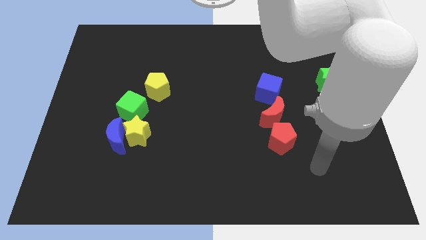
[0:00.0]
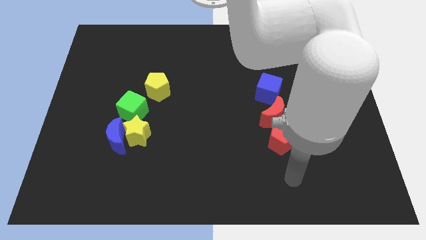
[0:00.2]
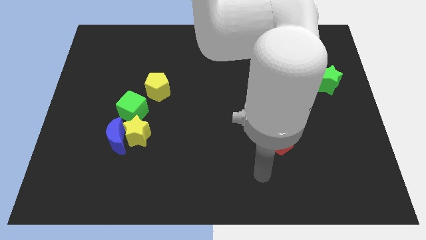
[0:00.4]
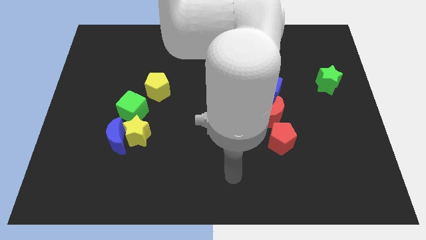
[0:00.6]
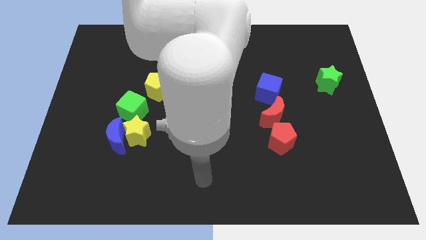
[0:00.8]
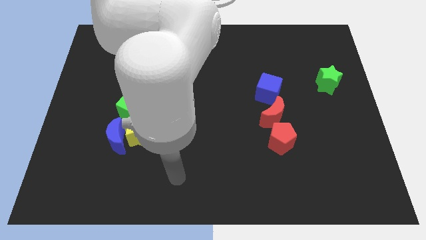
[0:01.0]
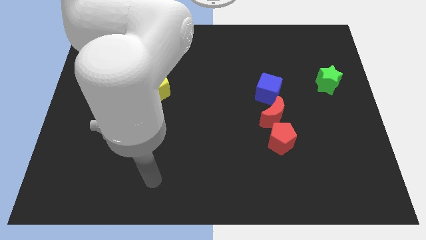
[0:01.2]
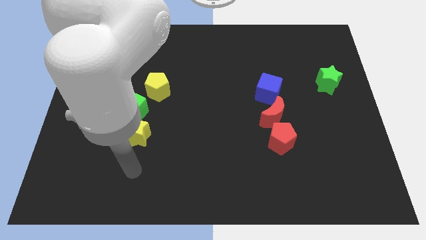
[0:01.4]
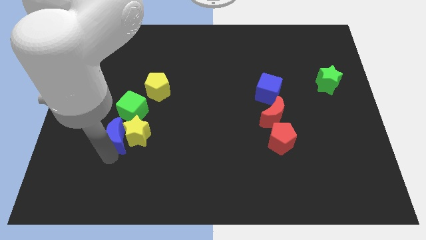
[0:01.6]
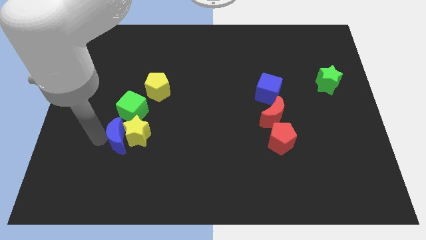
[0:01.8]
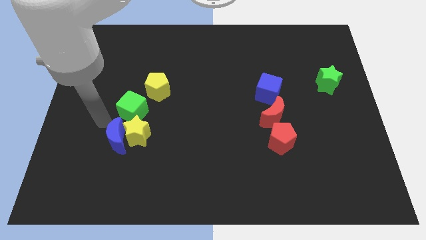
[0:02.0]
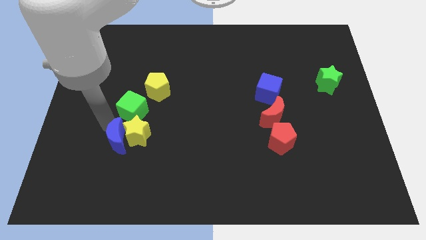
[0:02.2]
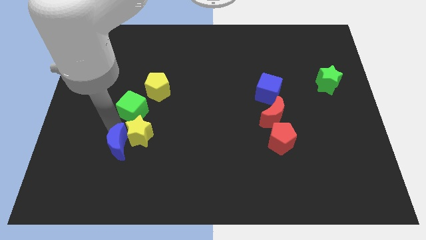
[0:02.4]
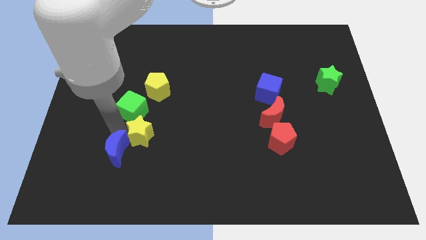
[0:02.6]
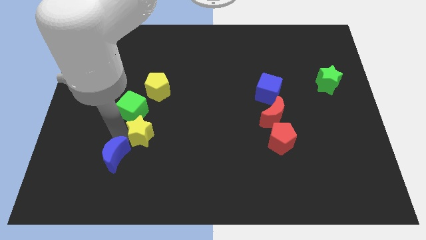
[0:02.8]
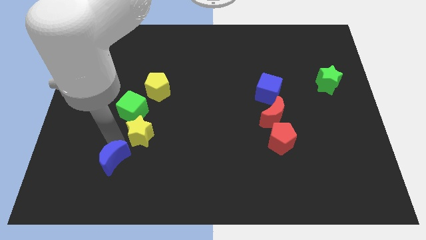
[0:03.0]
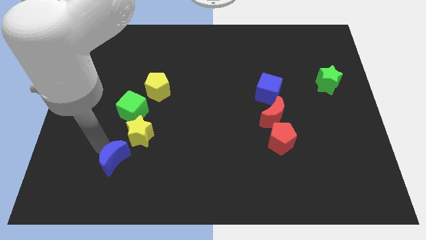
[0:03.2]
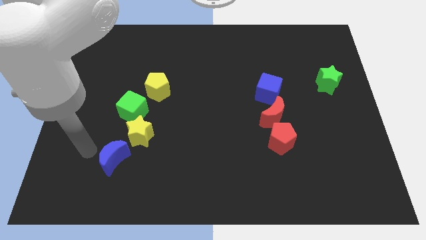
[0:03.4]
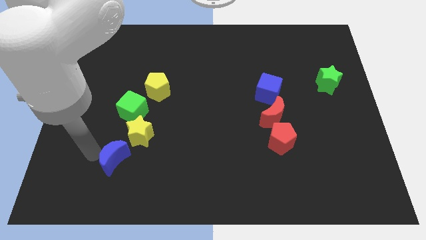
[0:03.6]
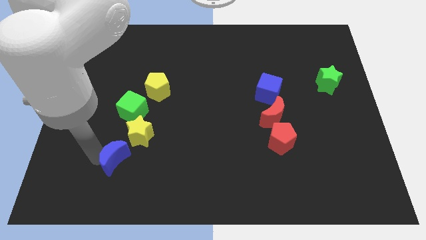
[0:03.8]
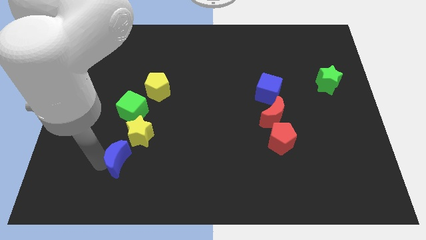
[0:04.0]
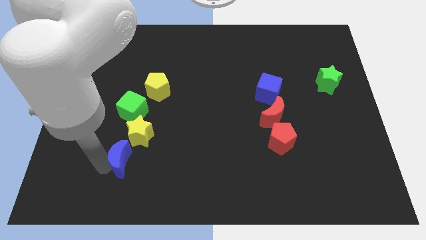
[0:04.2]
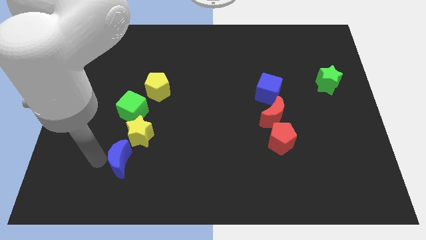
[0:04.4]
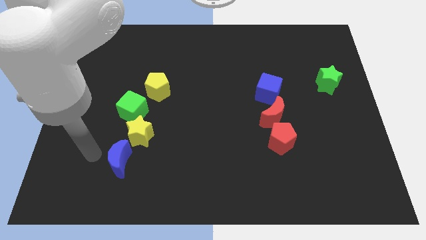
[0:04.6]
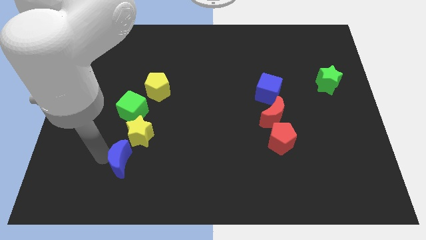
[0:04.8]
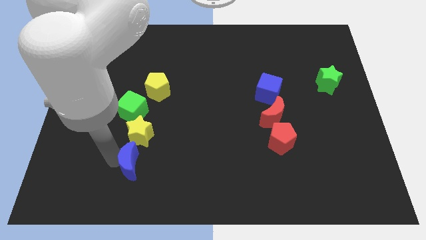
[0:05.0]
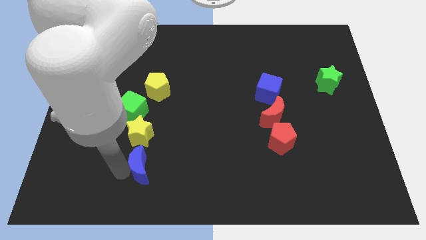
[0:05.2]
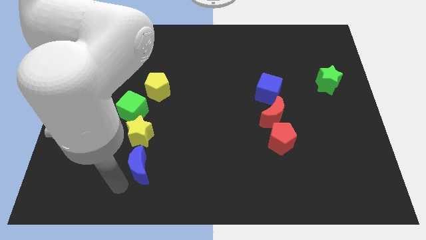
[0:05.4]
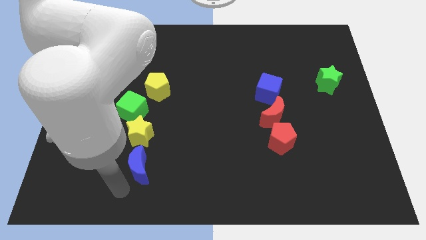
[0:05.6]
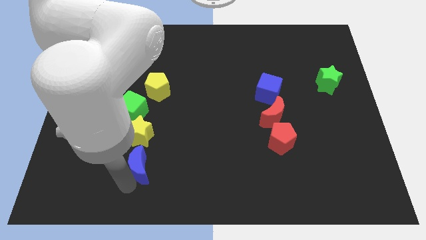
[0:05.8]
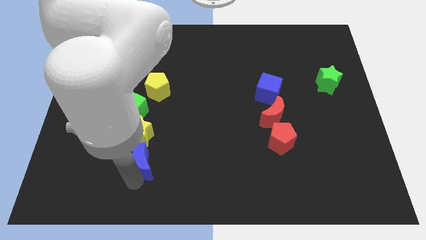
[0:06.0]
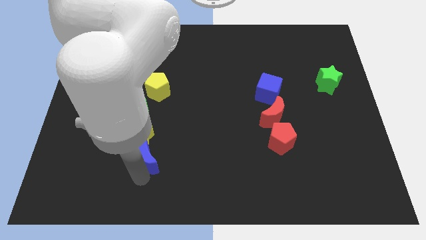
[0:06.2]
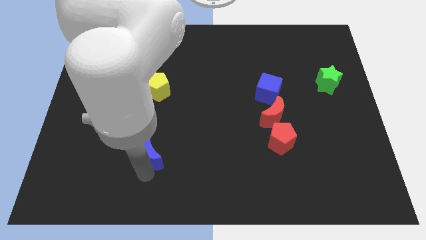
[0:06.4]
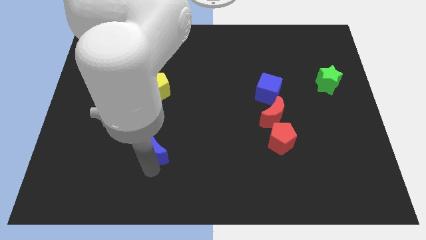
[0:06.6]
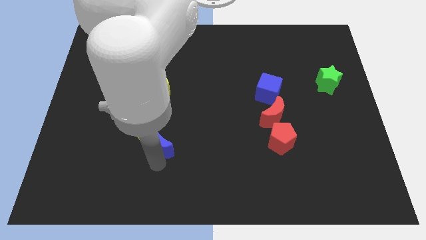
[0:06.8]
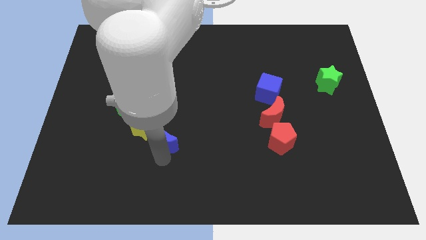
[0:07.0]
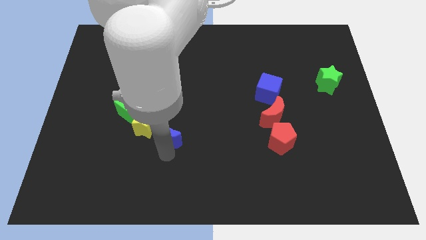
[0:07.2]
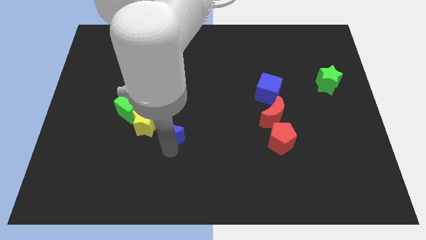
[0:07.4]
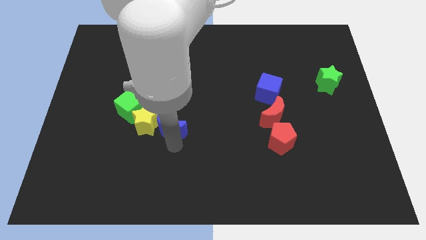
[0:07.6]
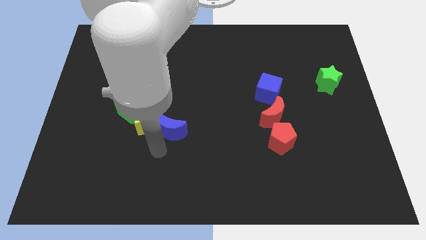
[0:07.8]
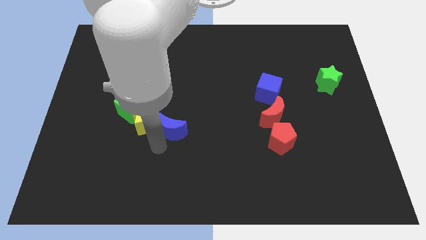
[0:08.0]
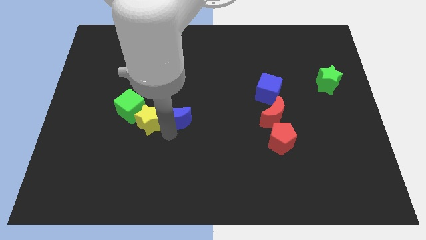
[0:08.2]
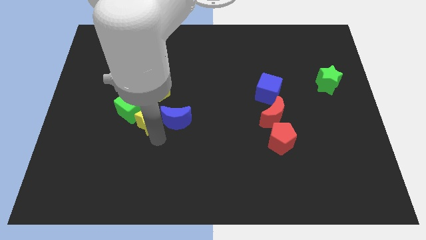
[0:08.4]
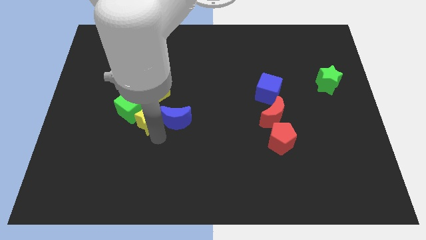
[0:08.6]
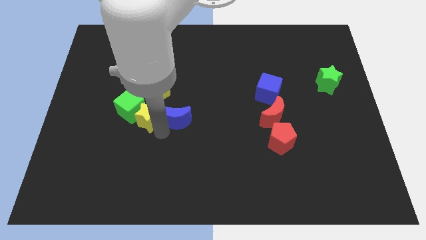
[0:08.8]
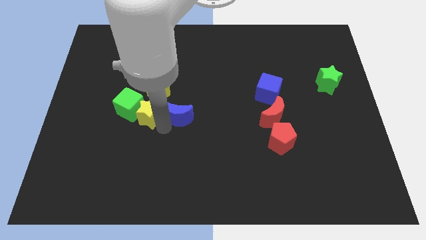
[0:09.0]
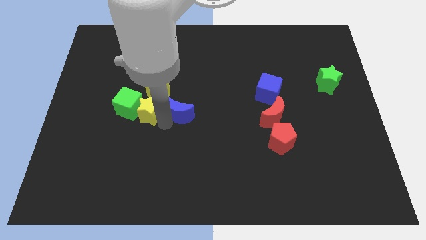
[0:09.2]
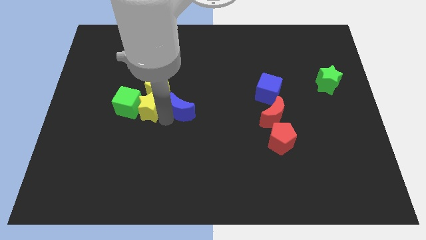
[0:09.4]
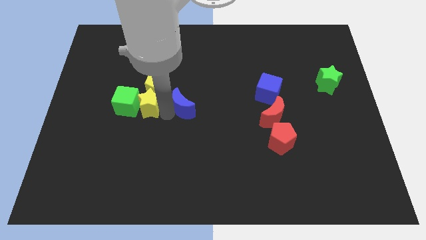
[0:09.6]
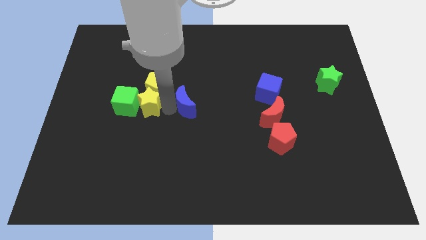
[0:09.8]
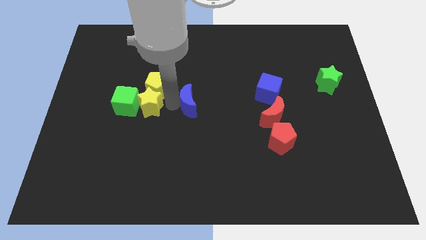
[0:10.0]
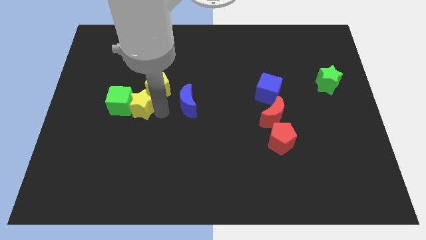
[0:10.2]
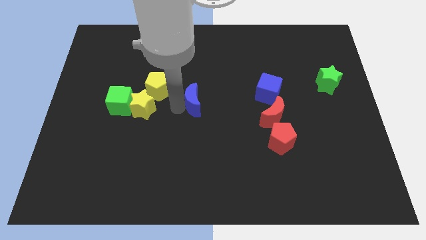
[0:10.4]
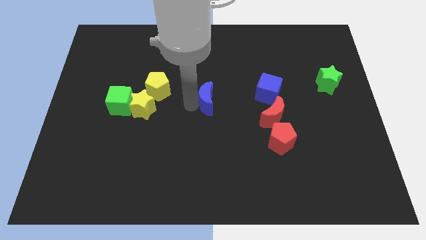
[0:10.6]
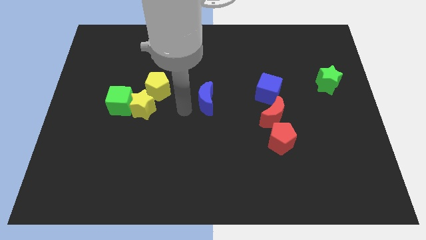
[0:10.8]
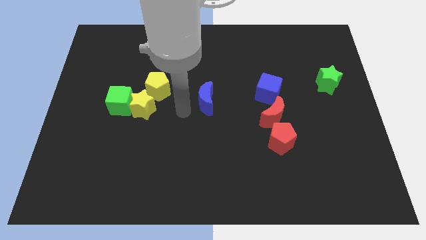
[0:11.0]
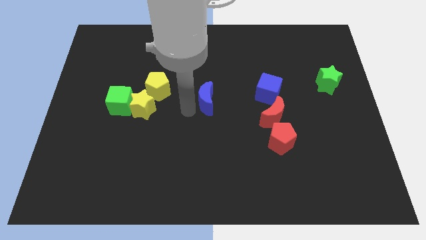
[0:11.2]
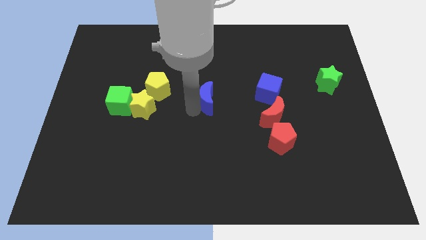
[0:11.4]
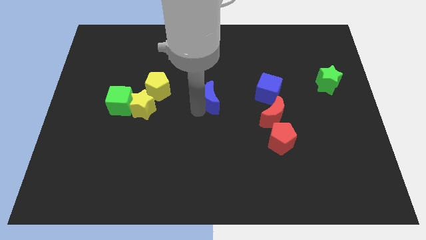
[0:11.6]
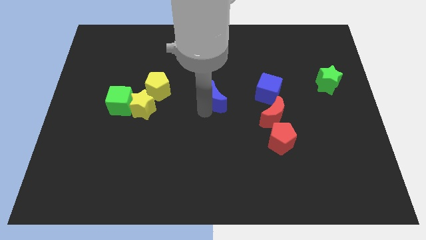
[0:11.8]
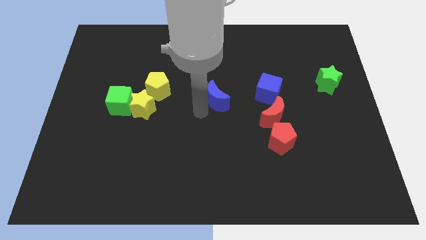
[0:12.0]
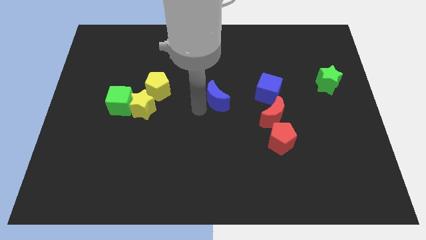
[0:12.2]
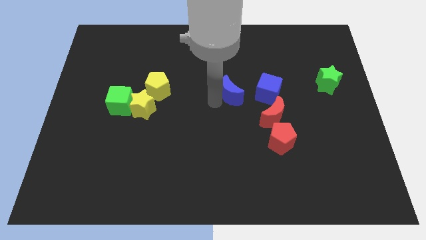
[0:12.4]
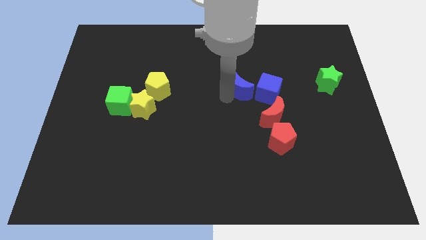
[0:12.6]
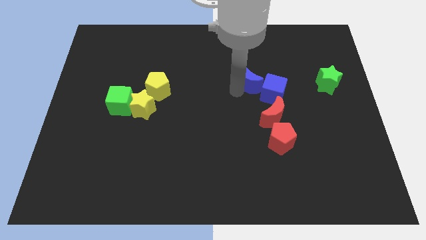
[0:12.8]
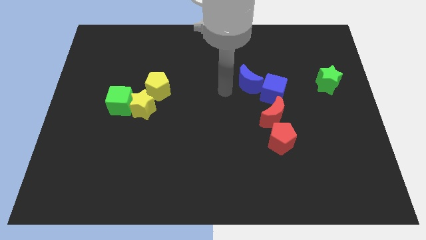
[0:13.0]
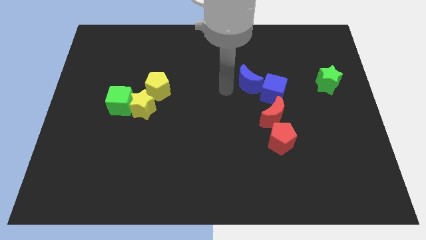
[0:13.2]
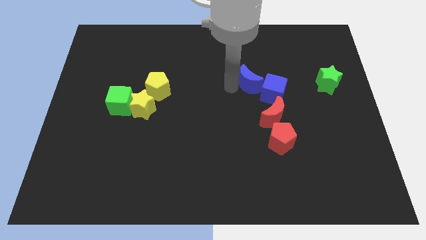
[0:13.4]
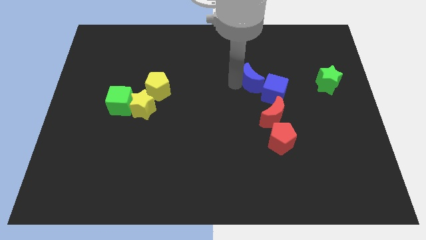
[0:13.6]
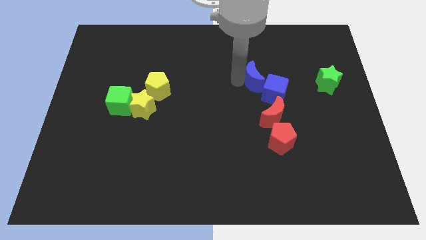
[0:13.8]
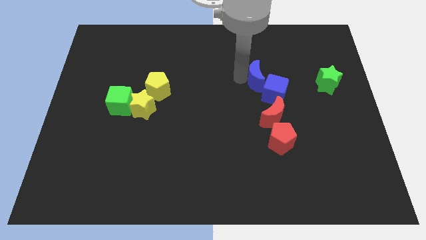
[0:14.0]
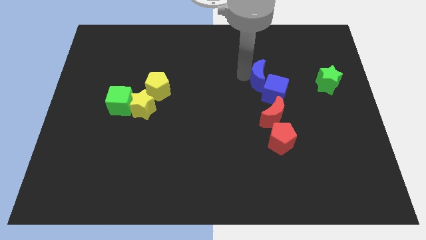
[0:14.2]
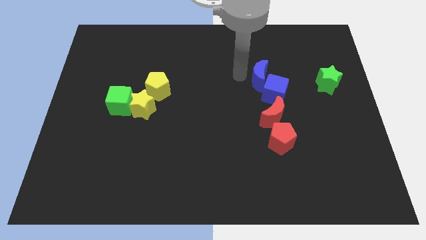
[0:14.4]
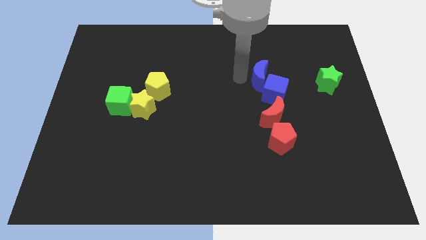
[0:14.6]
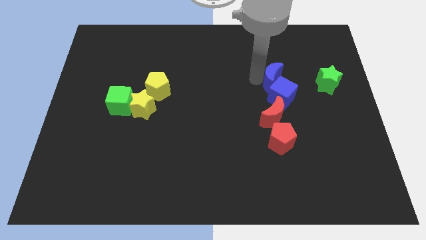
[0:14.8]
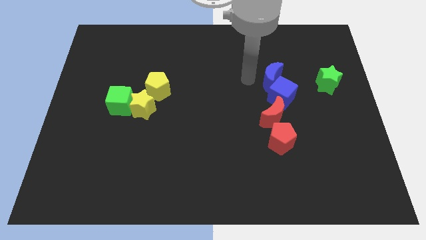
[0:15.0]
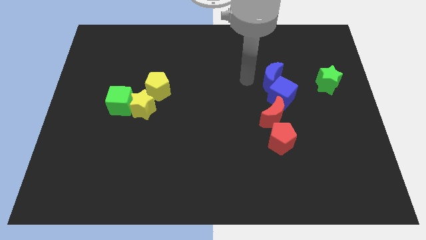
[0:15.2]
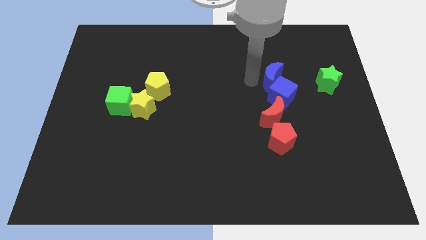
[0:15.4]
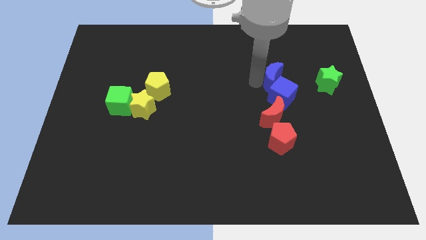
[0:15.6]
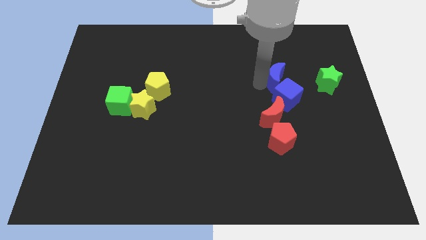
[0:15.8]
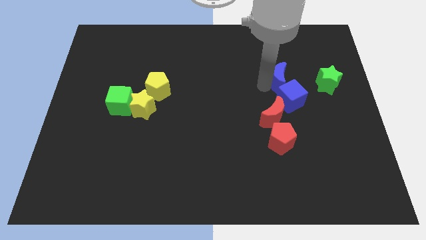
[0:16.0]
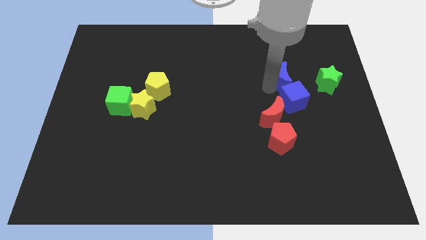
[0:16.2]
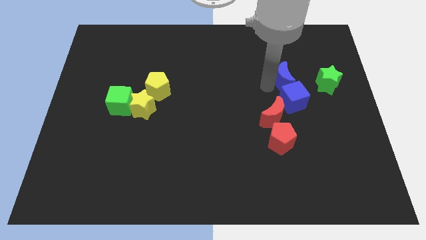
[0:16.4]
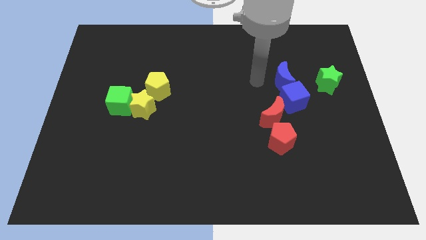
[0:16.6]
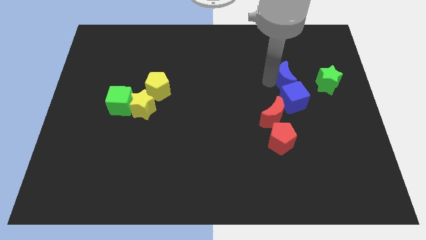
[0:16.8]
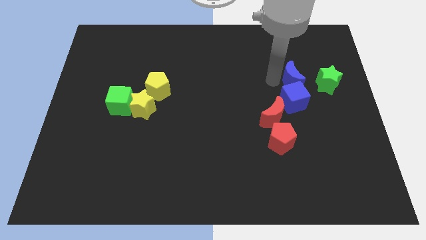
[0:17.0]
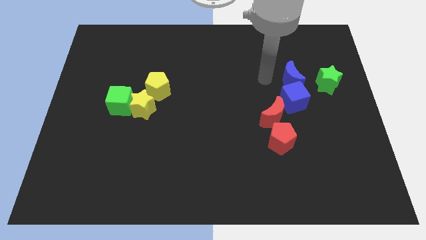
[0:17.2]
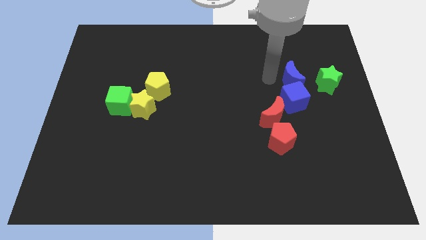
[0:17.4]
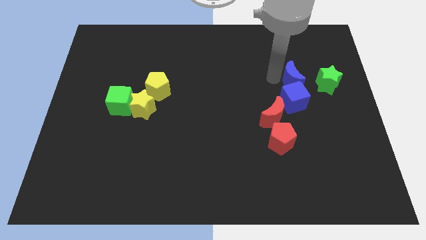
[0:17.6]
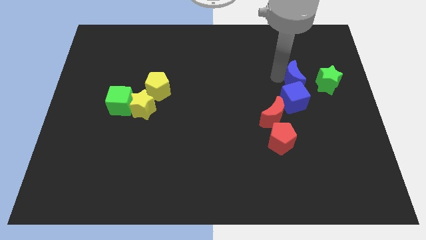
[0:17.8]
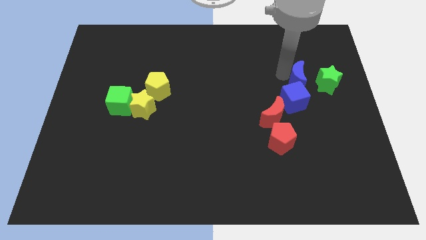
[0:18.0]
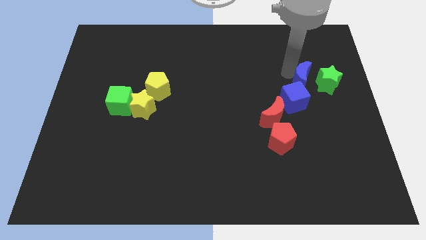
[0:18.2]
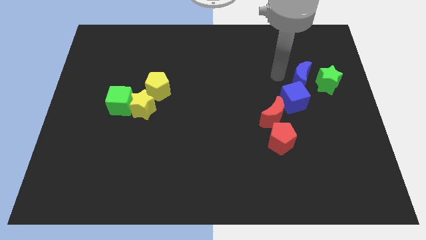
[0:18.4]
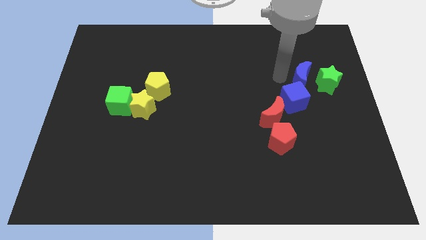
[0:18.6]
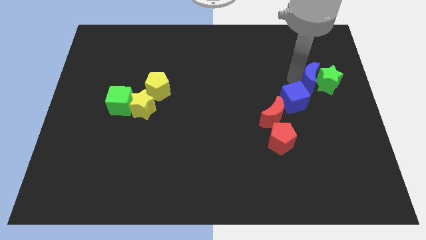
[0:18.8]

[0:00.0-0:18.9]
put the blue moon to the green star
